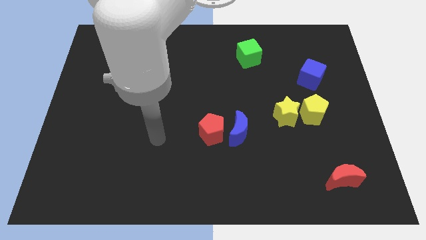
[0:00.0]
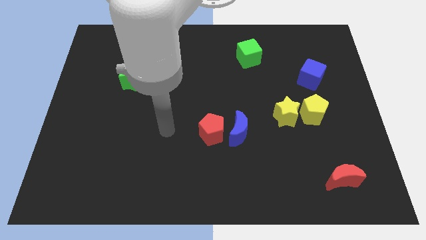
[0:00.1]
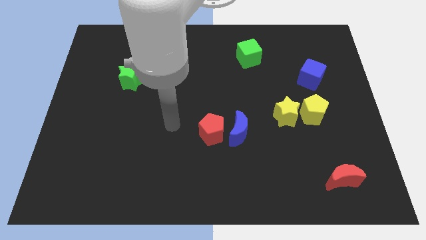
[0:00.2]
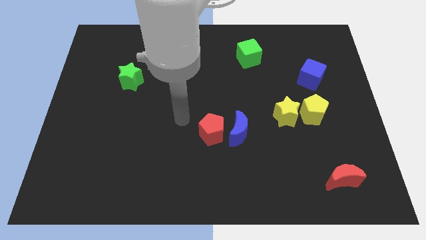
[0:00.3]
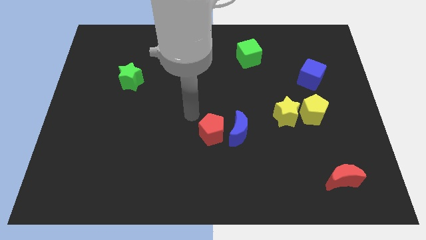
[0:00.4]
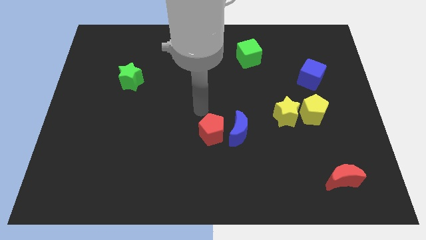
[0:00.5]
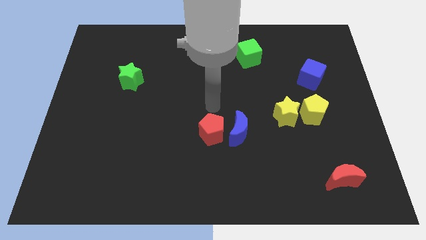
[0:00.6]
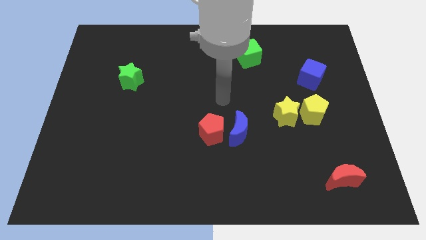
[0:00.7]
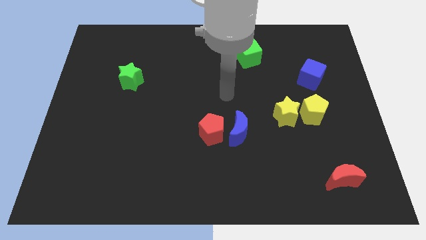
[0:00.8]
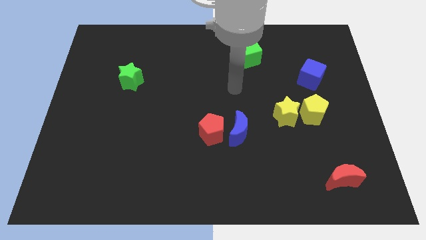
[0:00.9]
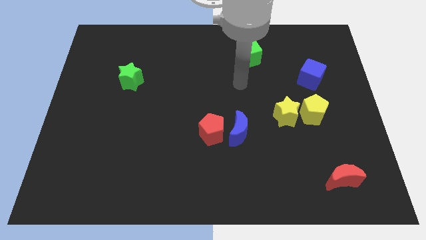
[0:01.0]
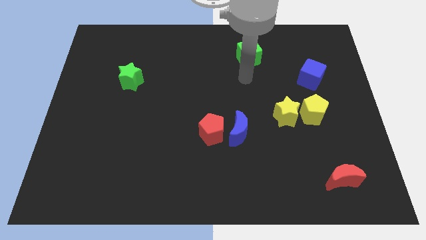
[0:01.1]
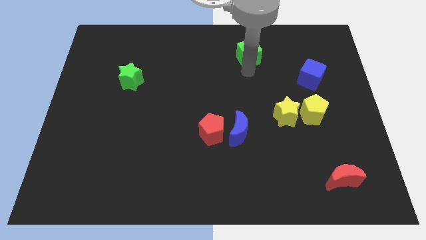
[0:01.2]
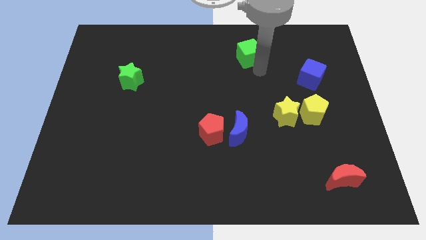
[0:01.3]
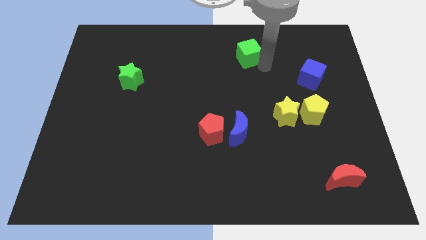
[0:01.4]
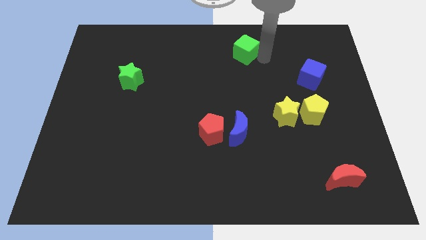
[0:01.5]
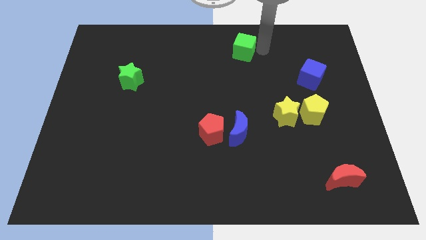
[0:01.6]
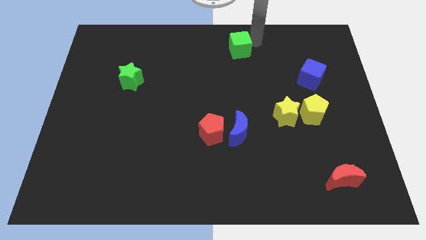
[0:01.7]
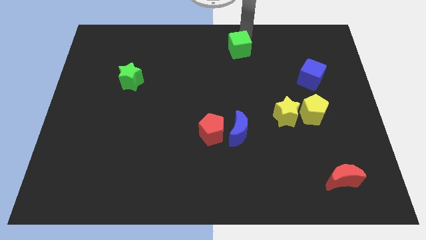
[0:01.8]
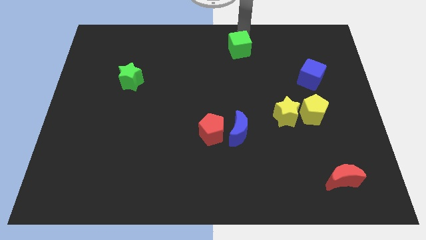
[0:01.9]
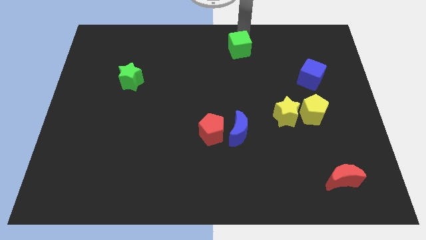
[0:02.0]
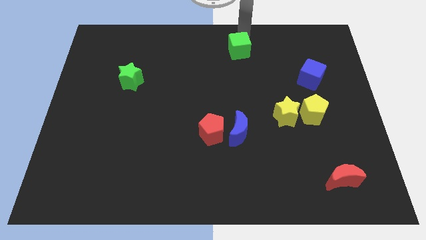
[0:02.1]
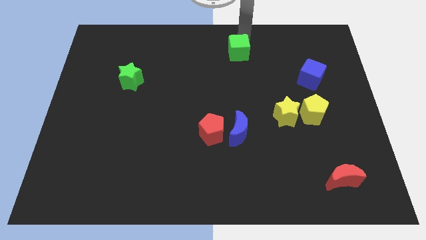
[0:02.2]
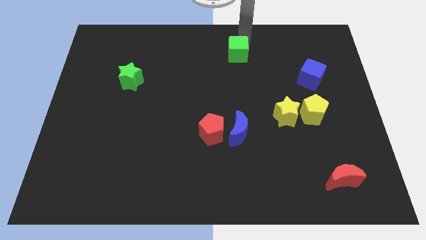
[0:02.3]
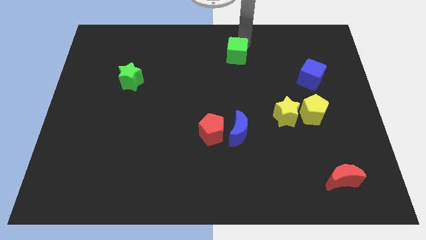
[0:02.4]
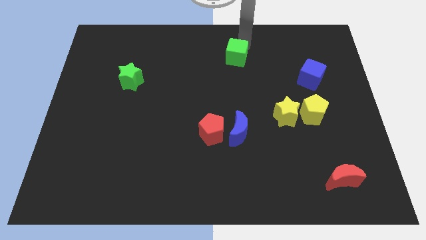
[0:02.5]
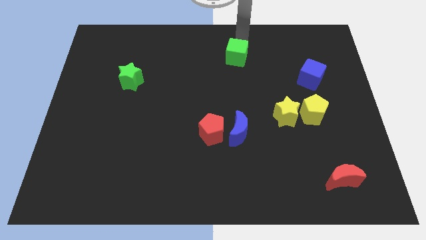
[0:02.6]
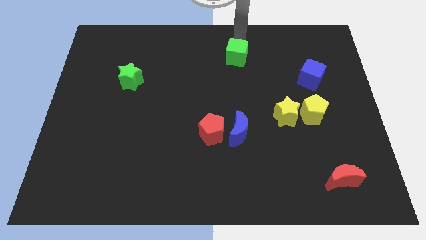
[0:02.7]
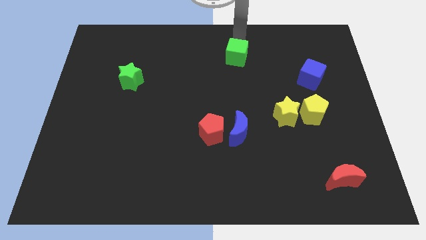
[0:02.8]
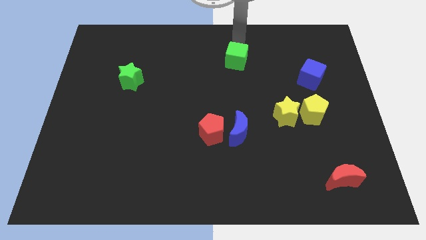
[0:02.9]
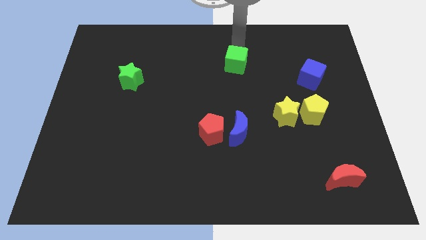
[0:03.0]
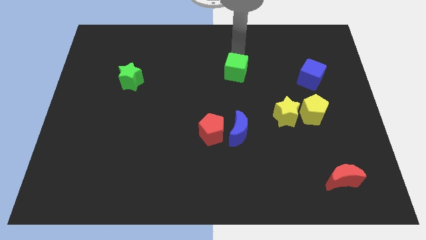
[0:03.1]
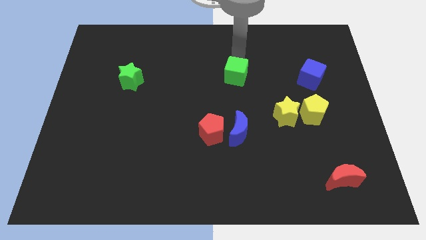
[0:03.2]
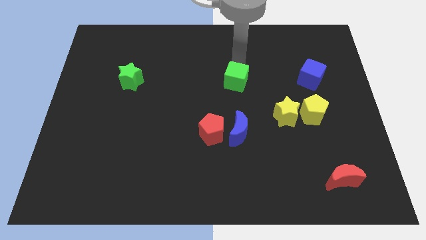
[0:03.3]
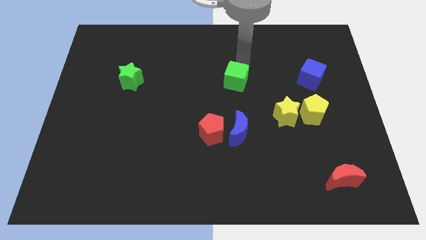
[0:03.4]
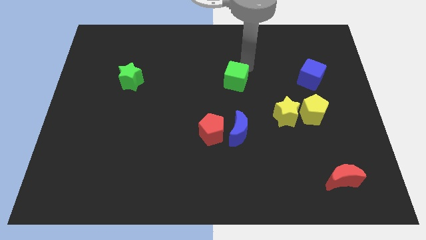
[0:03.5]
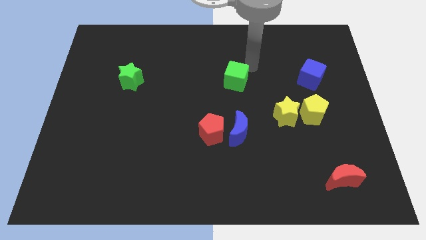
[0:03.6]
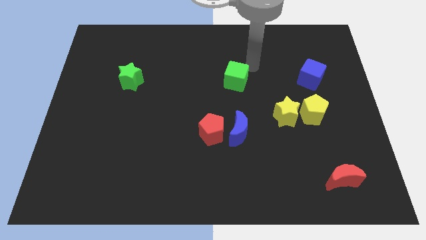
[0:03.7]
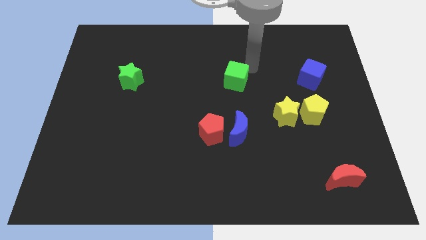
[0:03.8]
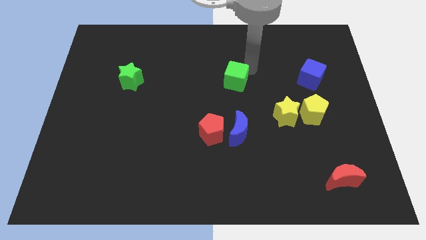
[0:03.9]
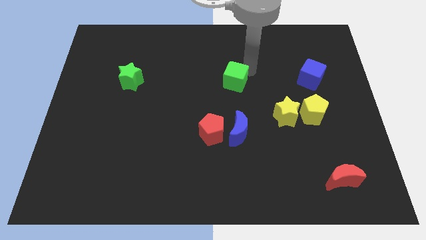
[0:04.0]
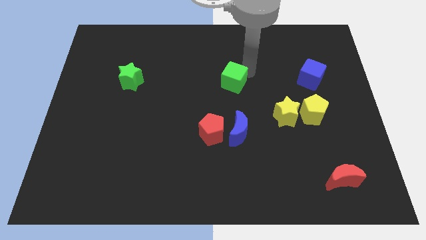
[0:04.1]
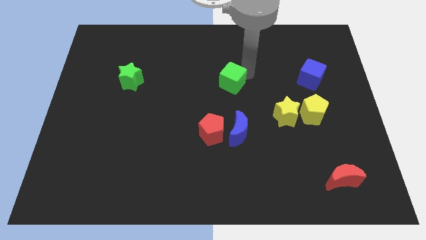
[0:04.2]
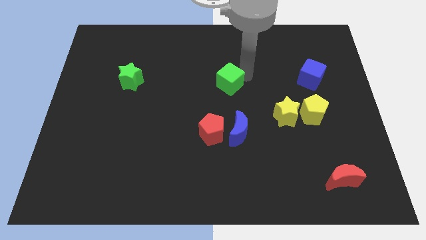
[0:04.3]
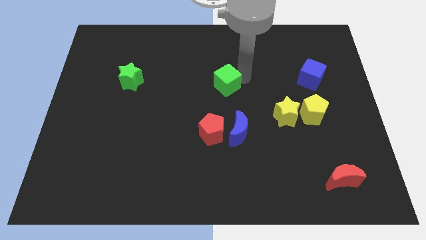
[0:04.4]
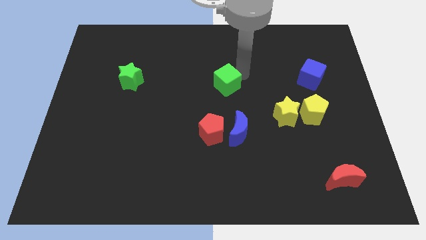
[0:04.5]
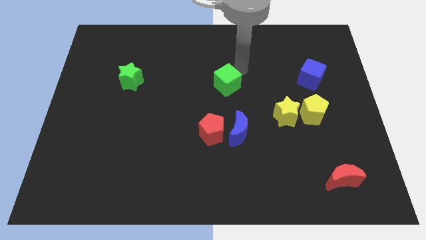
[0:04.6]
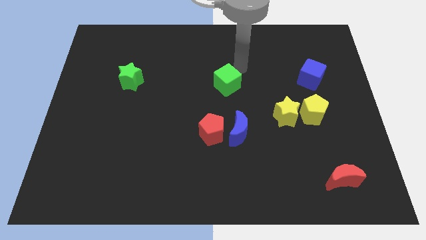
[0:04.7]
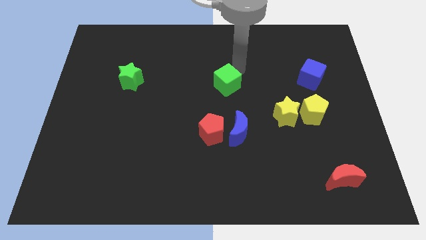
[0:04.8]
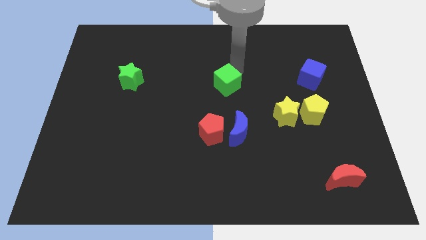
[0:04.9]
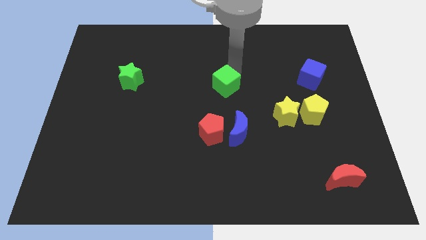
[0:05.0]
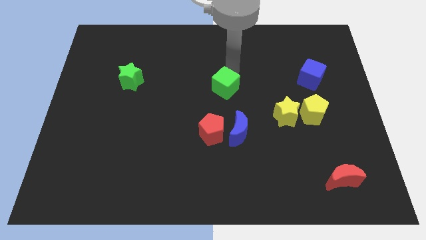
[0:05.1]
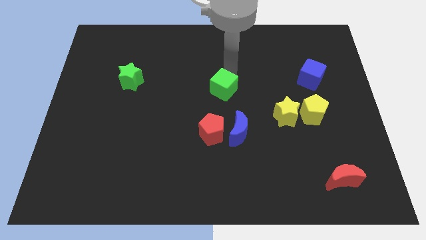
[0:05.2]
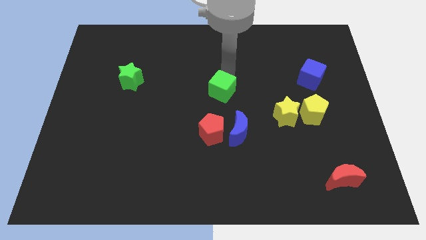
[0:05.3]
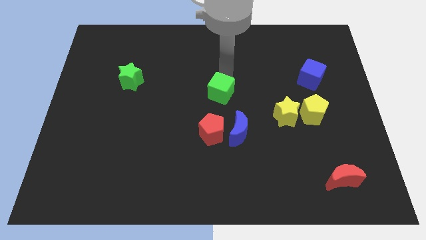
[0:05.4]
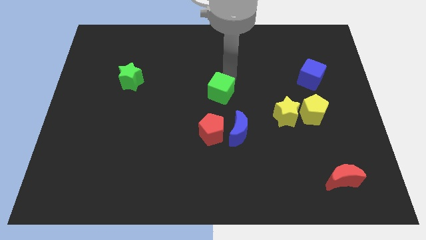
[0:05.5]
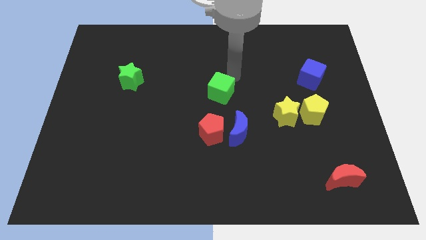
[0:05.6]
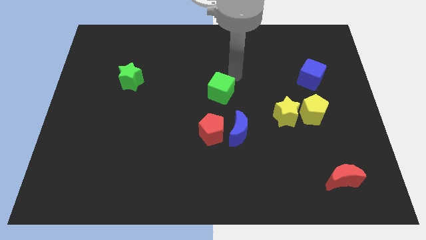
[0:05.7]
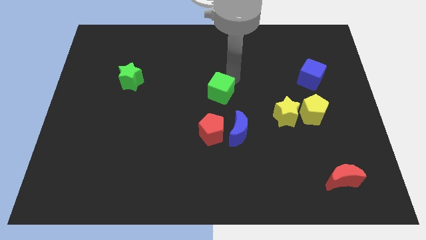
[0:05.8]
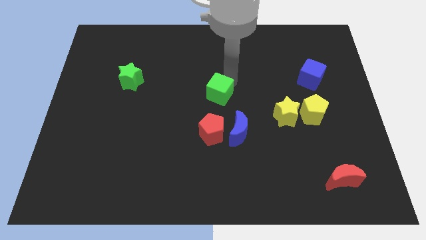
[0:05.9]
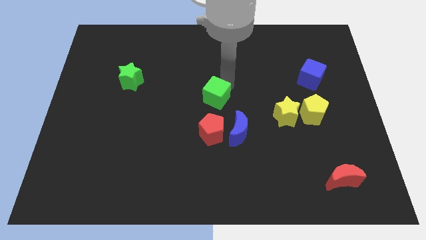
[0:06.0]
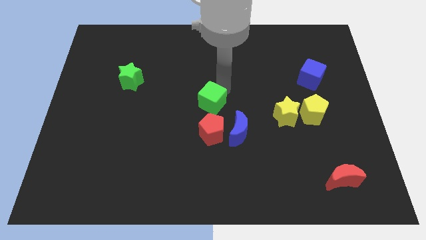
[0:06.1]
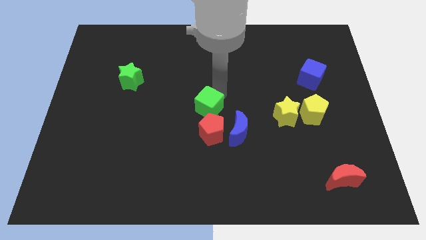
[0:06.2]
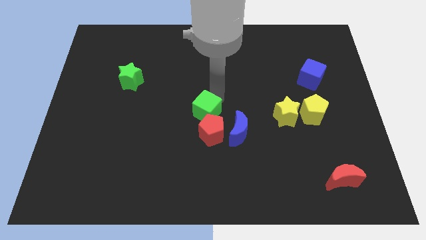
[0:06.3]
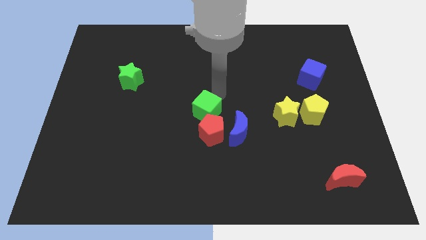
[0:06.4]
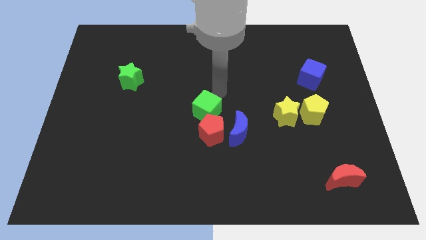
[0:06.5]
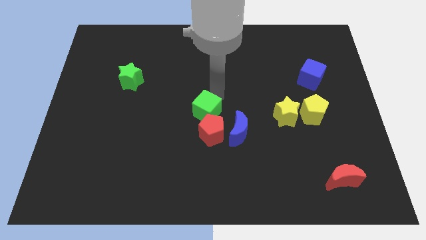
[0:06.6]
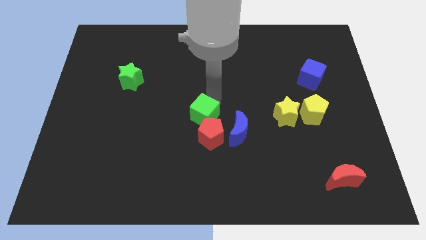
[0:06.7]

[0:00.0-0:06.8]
push the green cube to the left of the blue moon

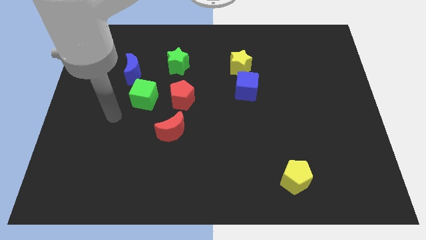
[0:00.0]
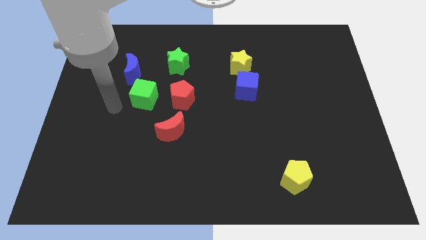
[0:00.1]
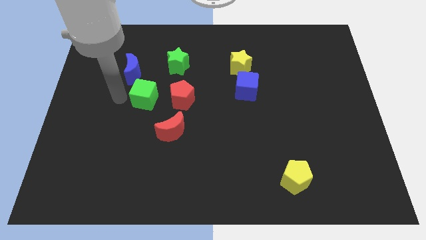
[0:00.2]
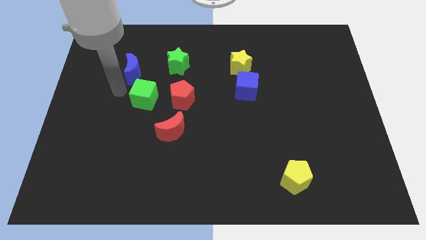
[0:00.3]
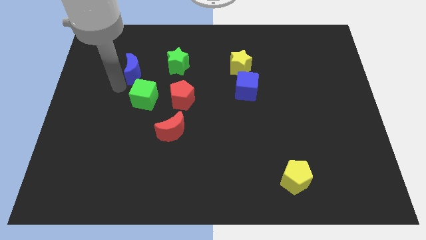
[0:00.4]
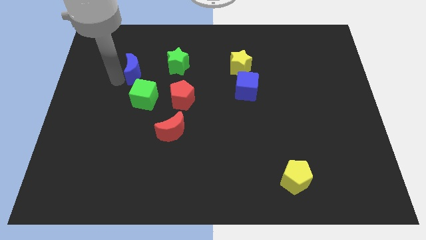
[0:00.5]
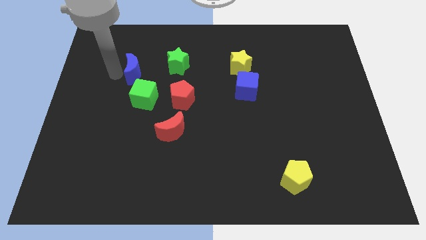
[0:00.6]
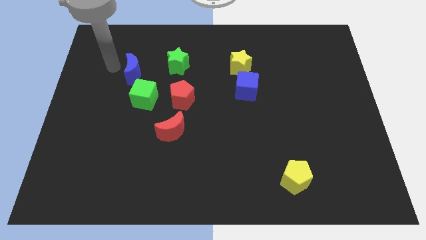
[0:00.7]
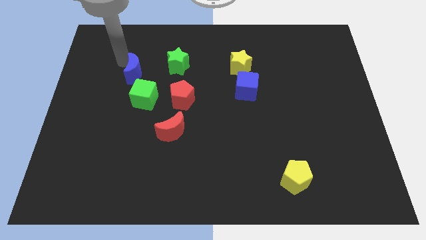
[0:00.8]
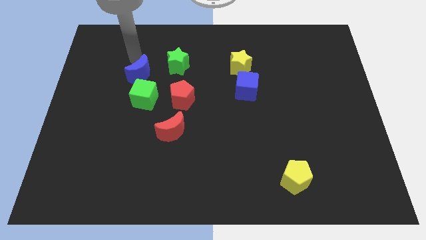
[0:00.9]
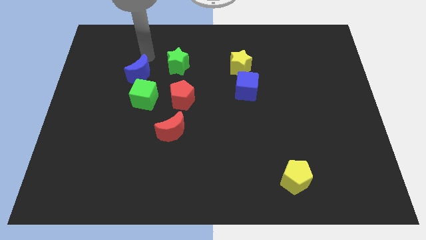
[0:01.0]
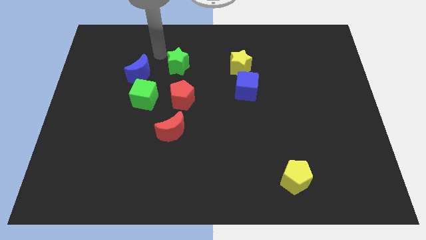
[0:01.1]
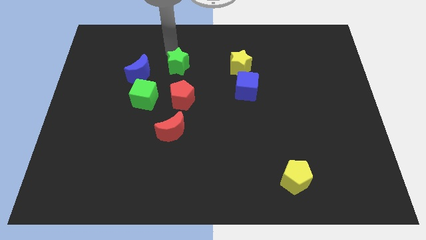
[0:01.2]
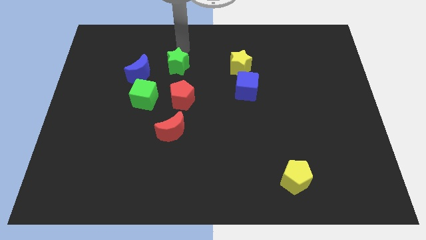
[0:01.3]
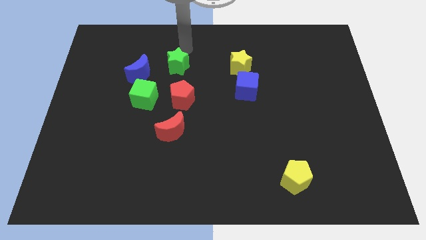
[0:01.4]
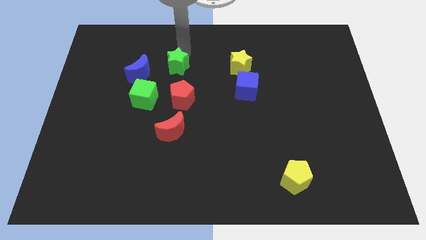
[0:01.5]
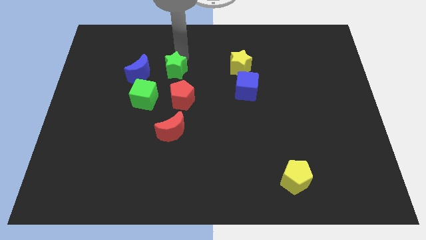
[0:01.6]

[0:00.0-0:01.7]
slide the green star to the top right side of the green cube
